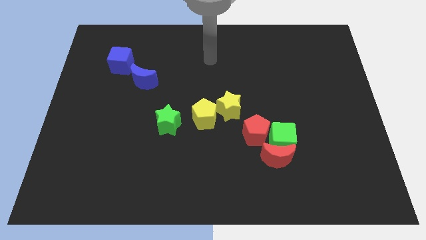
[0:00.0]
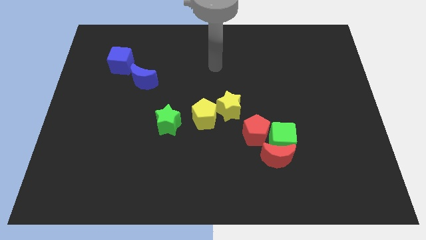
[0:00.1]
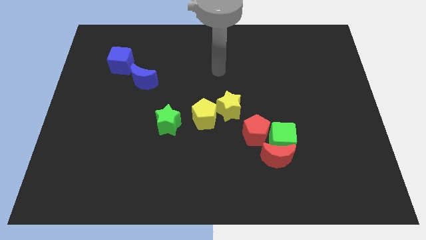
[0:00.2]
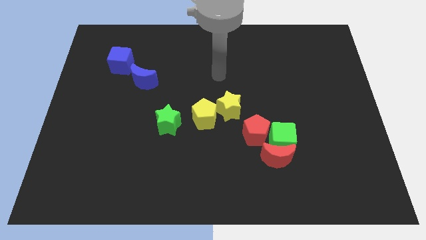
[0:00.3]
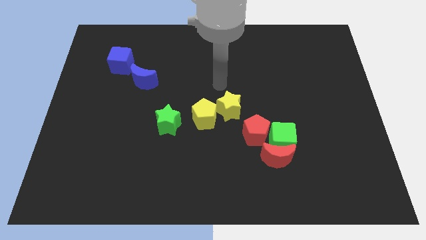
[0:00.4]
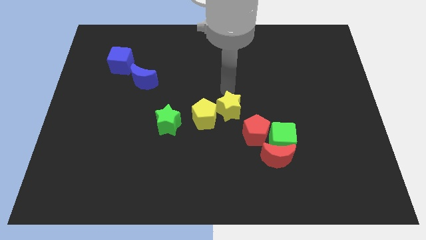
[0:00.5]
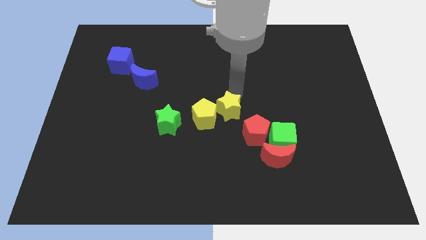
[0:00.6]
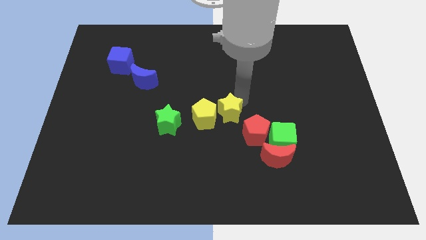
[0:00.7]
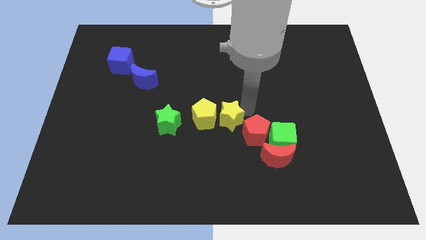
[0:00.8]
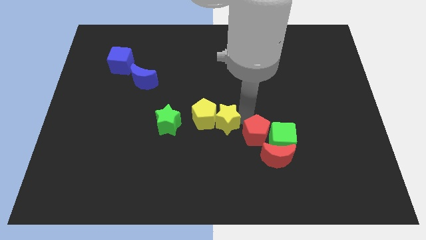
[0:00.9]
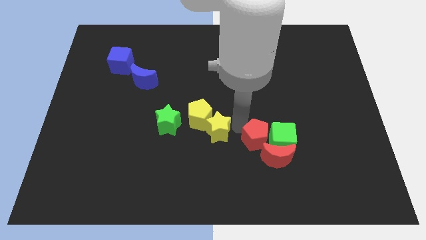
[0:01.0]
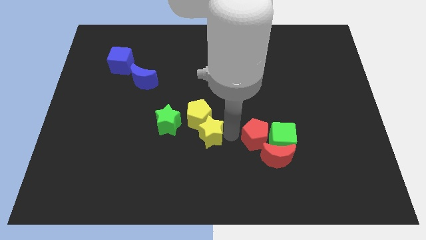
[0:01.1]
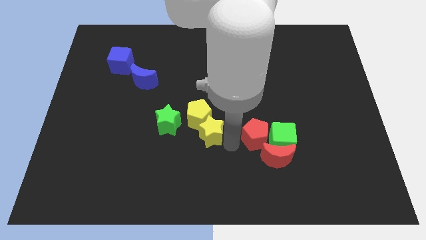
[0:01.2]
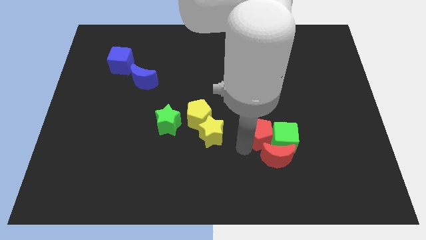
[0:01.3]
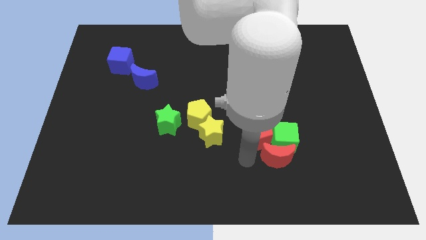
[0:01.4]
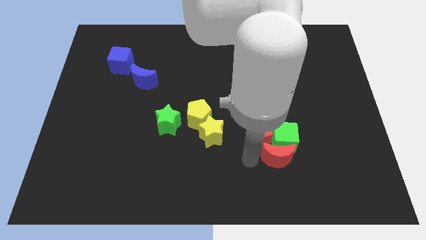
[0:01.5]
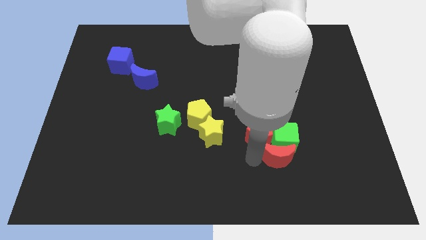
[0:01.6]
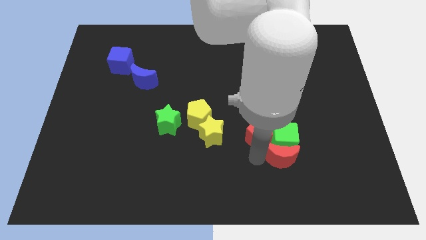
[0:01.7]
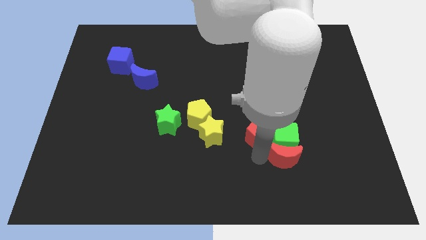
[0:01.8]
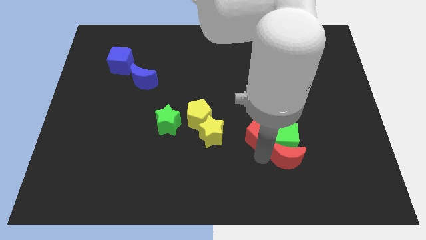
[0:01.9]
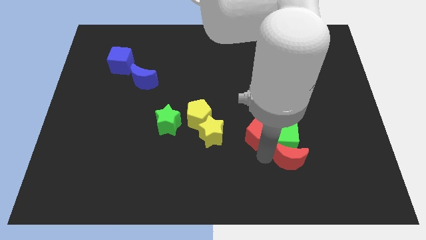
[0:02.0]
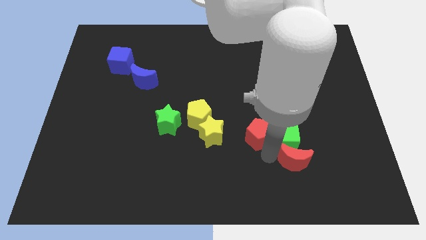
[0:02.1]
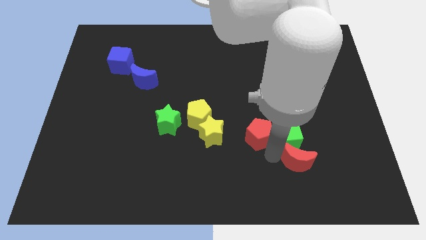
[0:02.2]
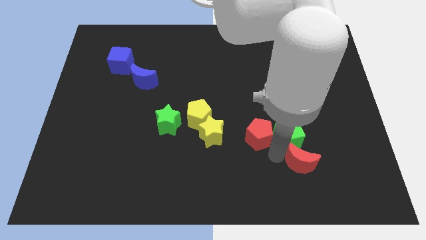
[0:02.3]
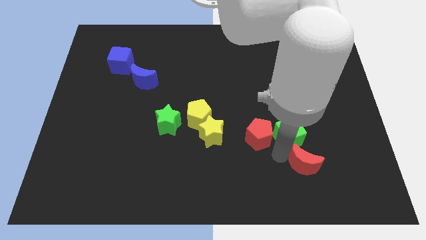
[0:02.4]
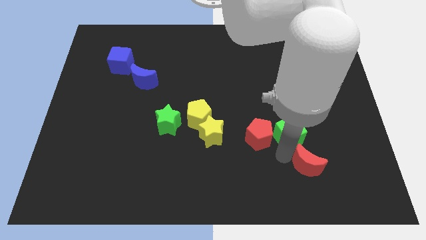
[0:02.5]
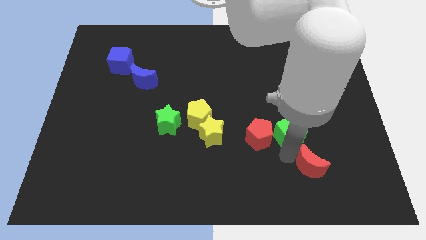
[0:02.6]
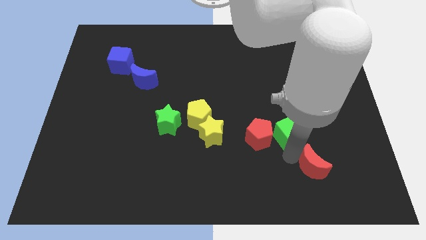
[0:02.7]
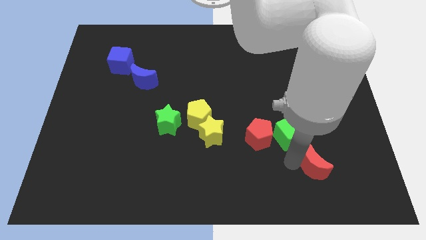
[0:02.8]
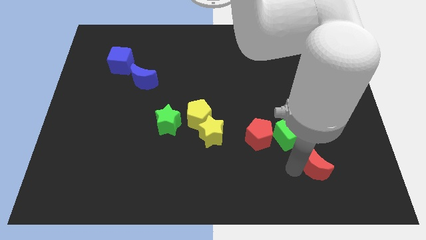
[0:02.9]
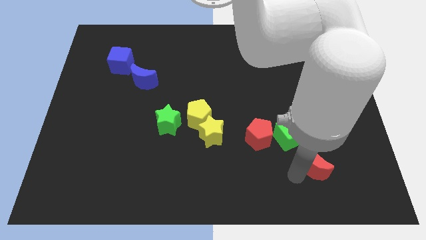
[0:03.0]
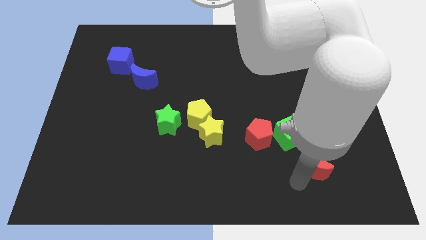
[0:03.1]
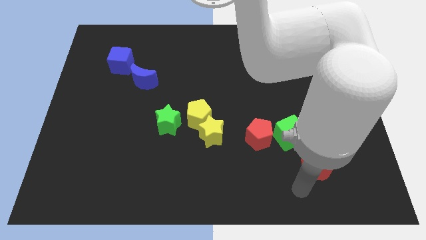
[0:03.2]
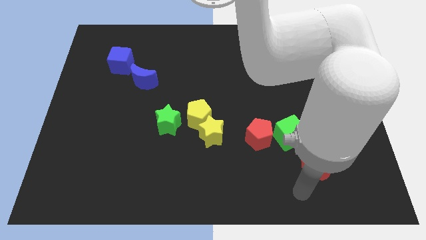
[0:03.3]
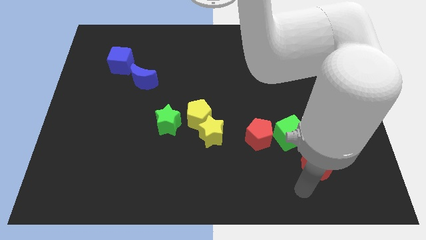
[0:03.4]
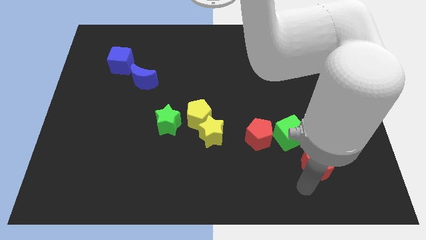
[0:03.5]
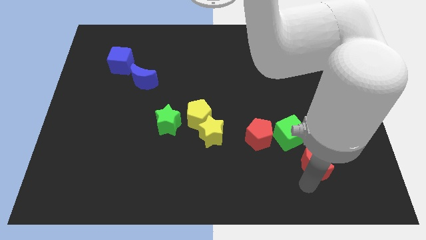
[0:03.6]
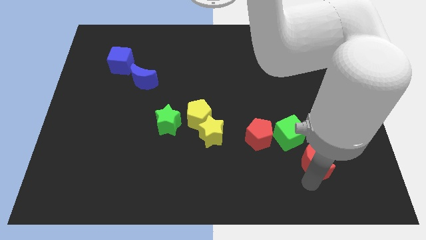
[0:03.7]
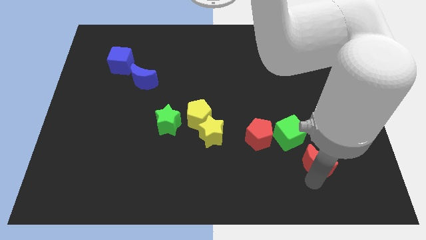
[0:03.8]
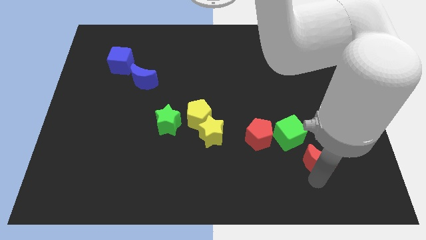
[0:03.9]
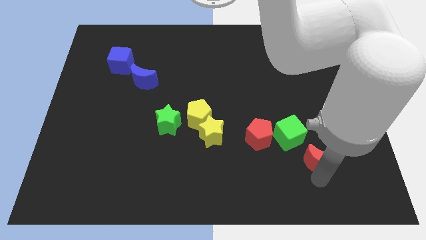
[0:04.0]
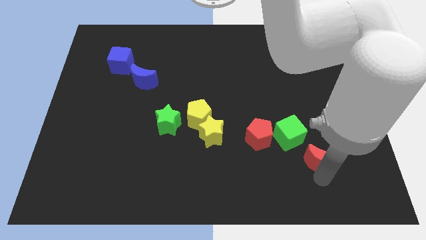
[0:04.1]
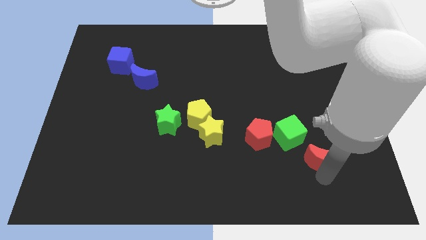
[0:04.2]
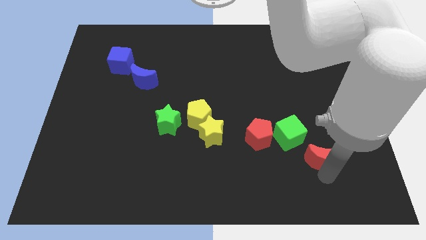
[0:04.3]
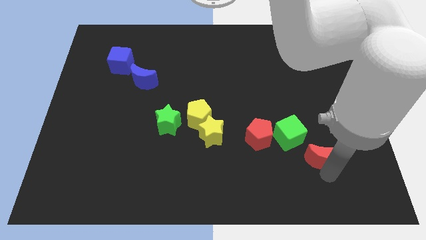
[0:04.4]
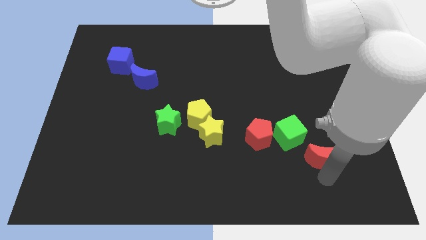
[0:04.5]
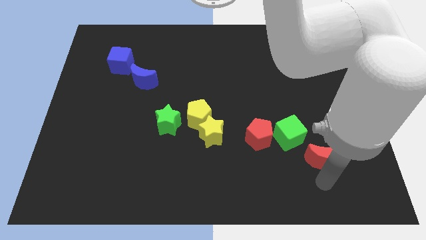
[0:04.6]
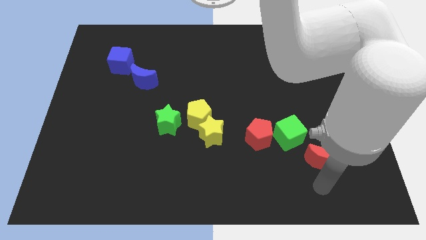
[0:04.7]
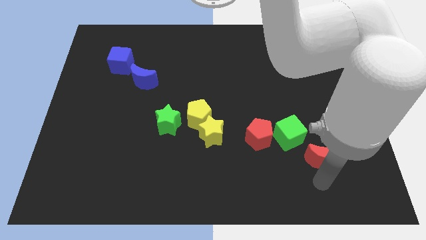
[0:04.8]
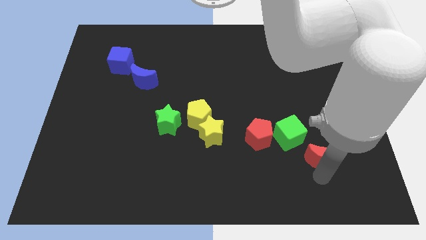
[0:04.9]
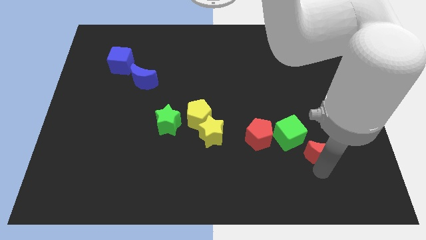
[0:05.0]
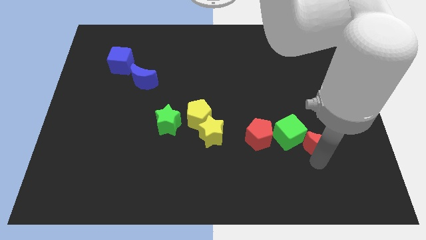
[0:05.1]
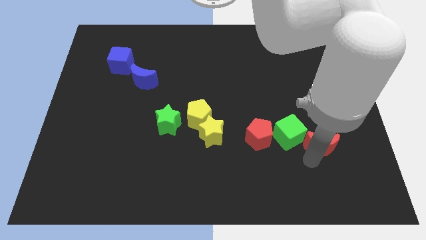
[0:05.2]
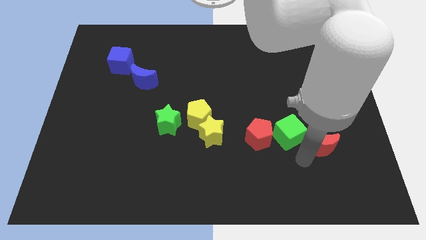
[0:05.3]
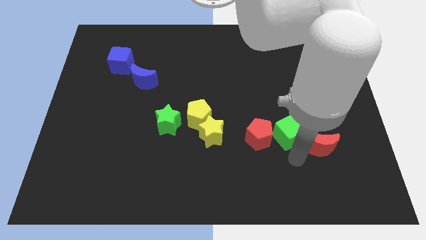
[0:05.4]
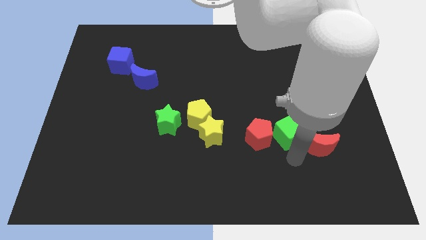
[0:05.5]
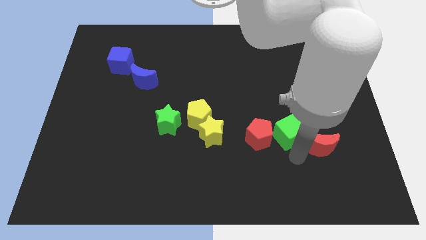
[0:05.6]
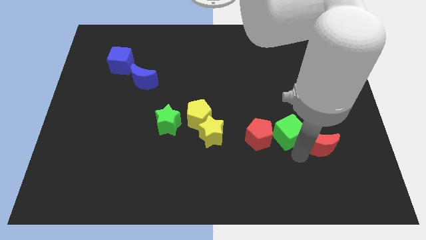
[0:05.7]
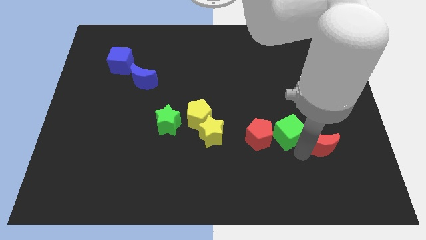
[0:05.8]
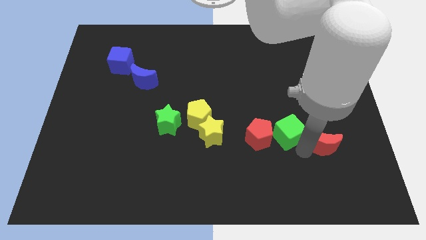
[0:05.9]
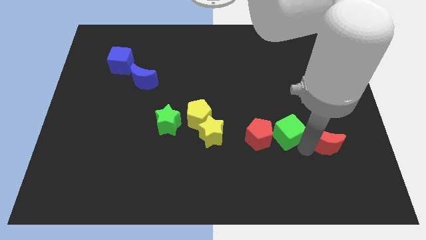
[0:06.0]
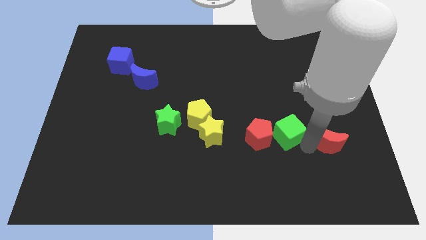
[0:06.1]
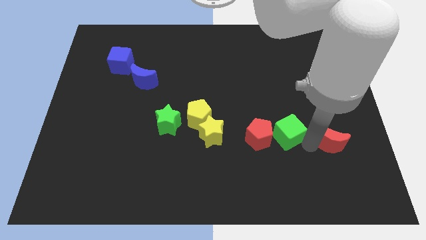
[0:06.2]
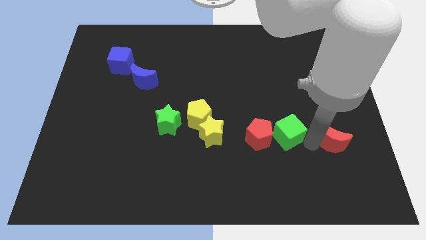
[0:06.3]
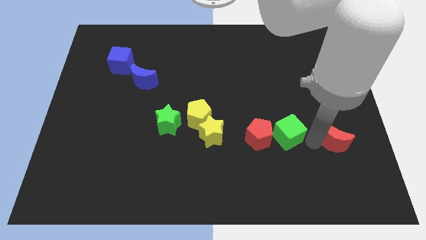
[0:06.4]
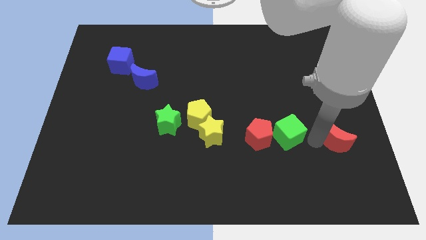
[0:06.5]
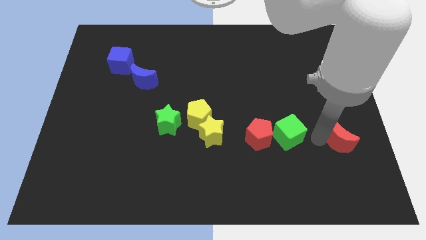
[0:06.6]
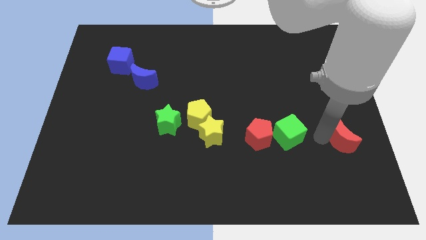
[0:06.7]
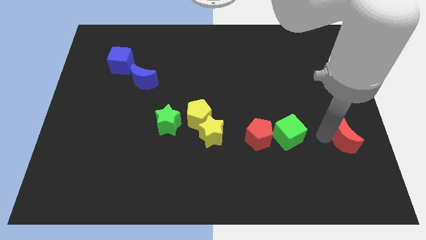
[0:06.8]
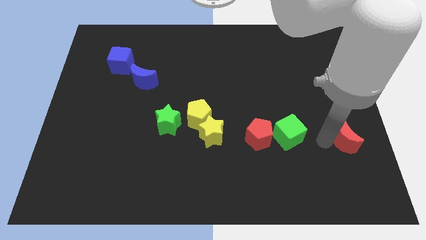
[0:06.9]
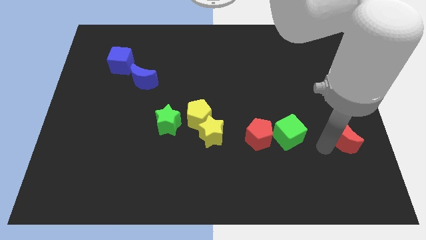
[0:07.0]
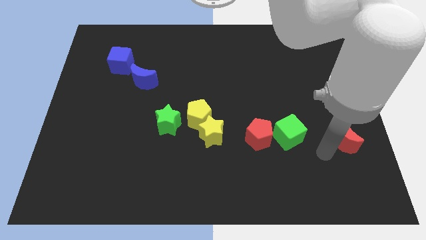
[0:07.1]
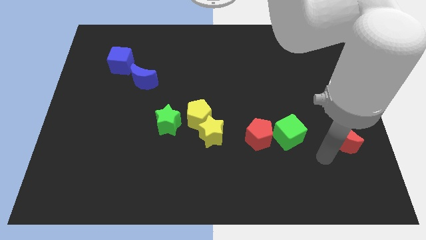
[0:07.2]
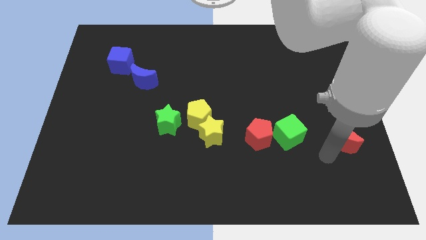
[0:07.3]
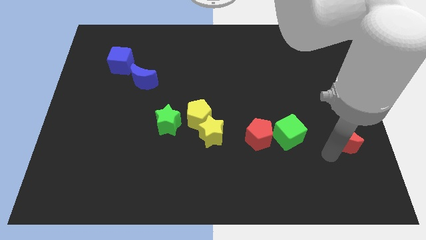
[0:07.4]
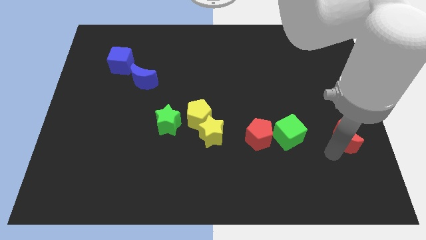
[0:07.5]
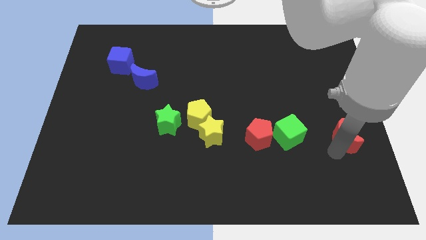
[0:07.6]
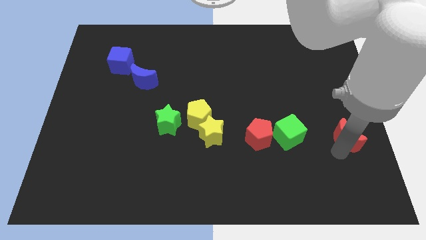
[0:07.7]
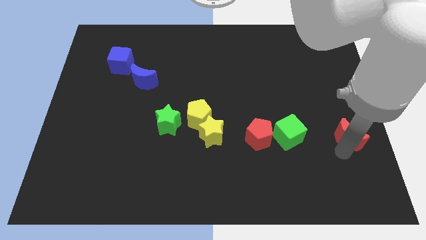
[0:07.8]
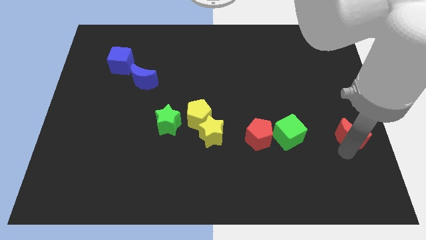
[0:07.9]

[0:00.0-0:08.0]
slide the red moon to the right side
